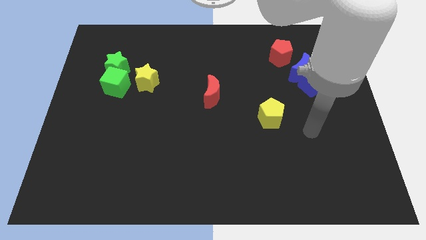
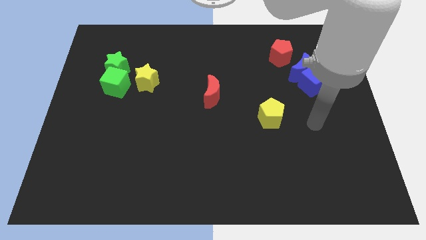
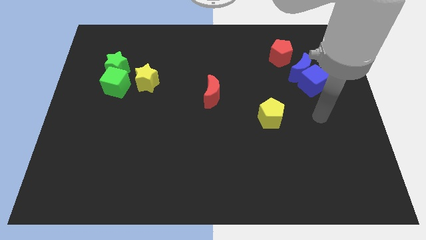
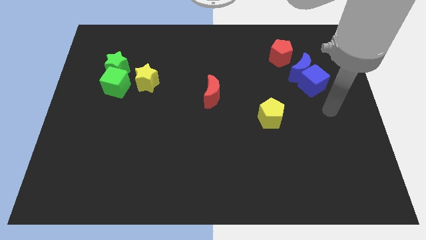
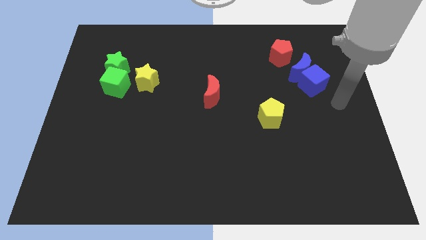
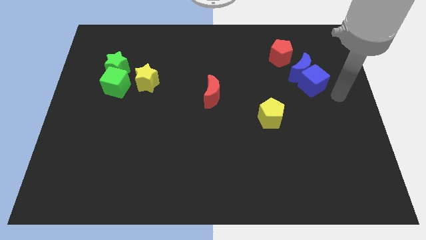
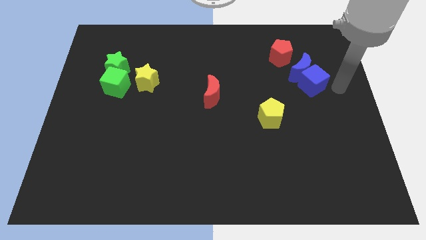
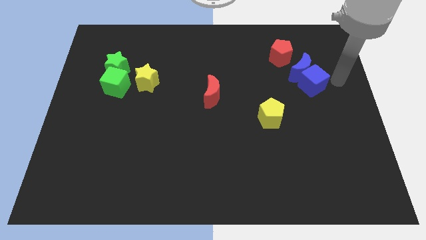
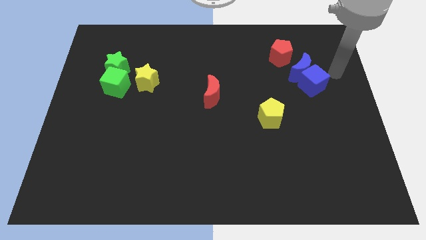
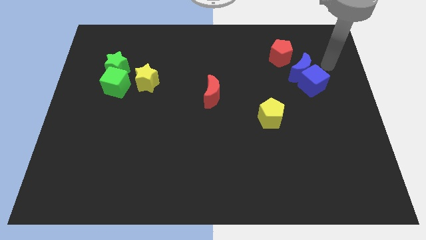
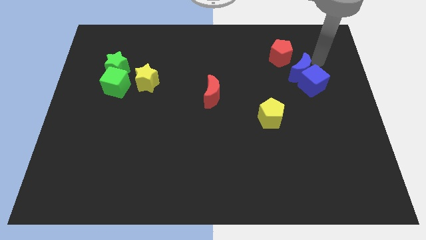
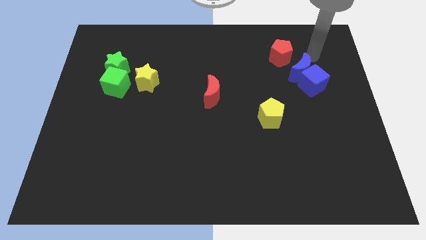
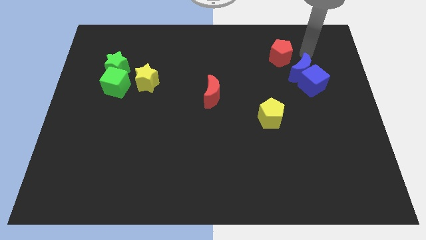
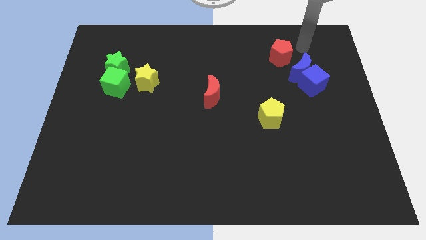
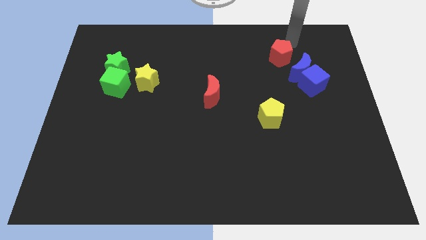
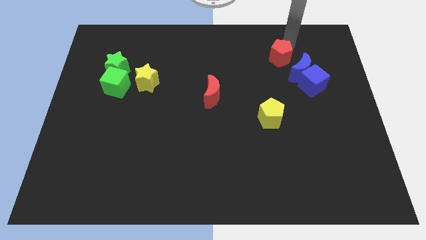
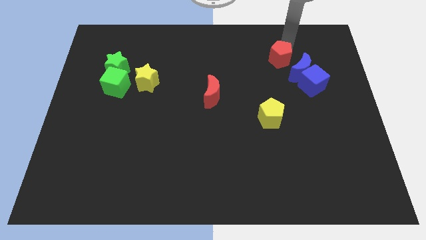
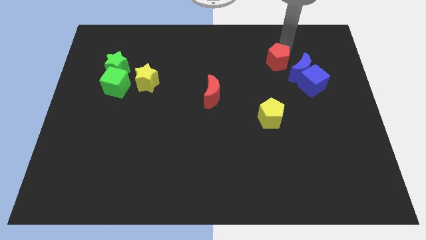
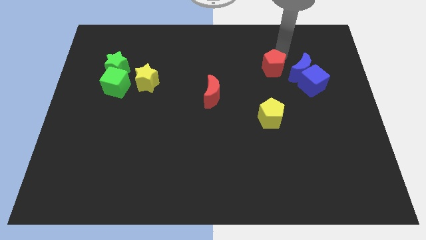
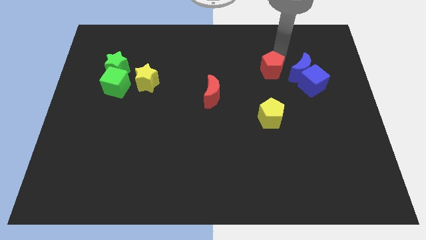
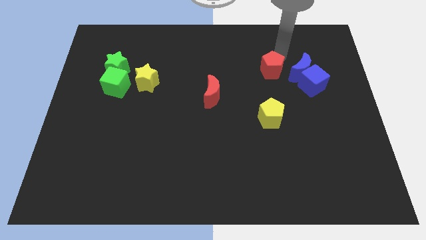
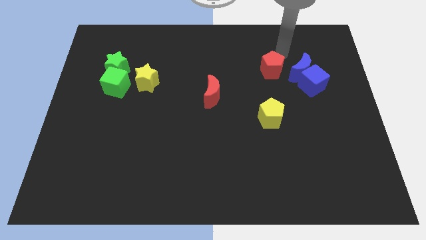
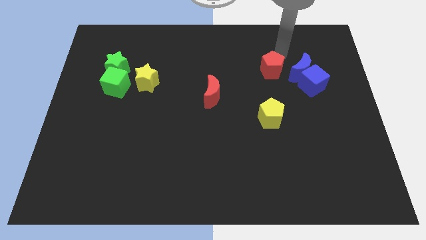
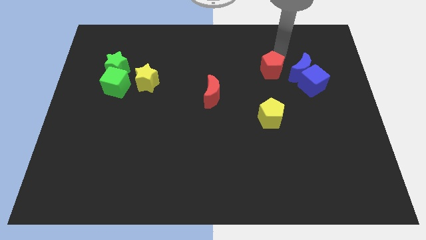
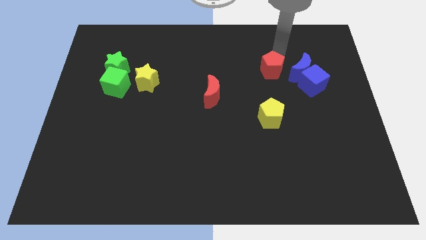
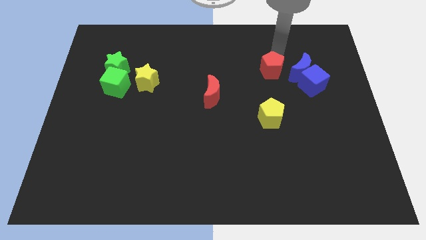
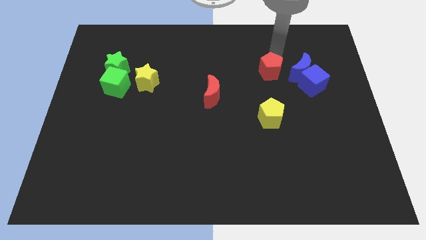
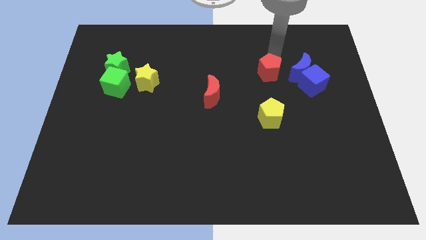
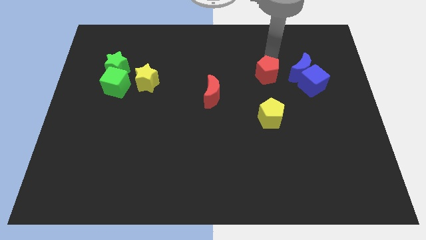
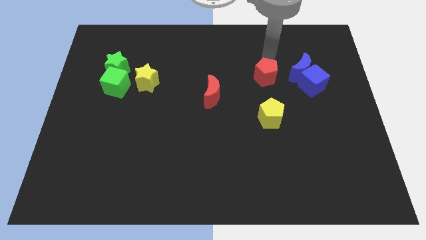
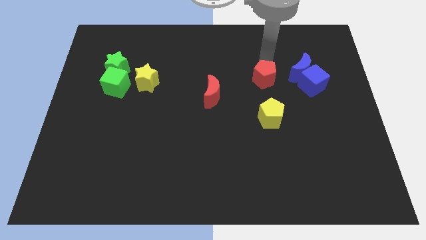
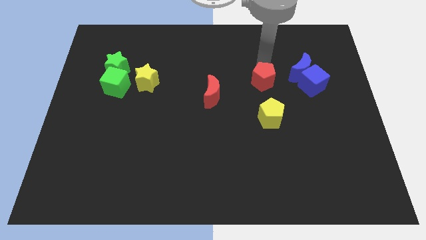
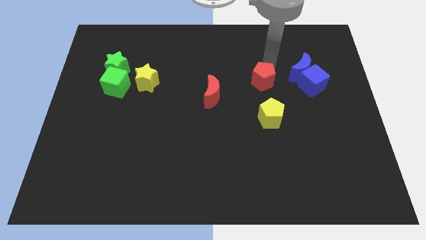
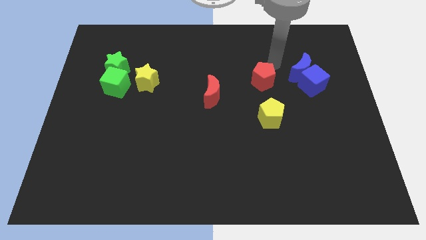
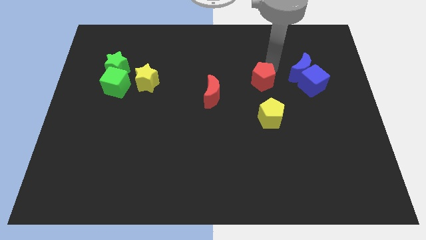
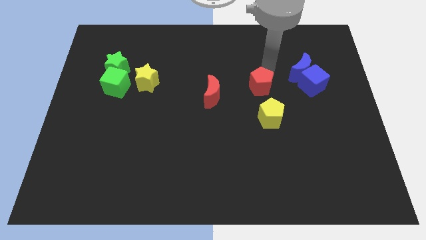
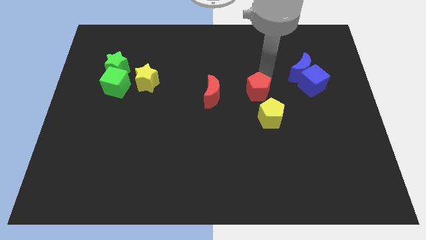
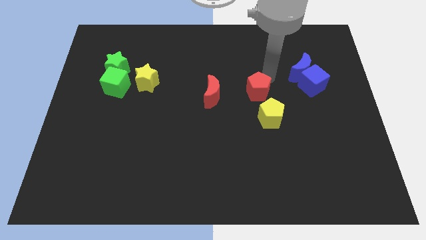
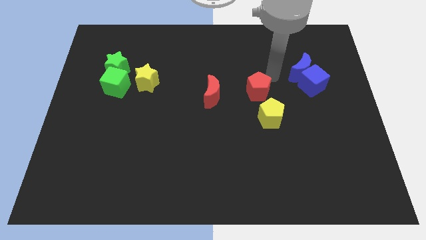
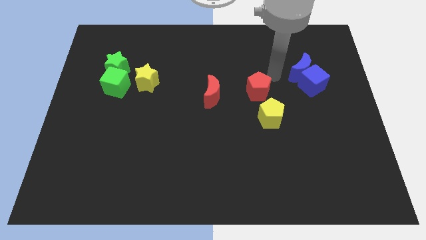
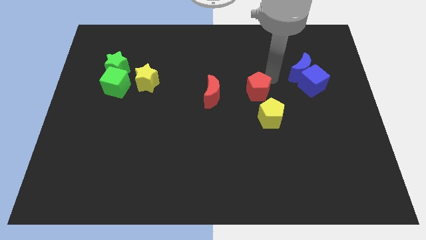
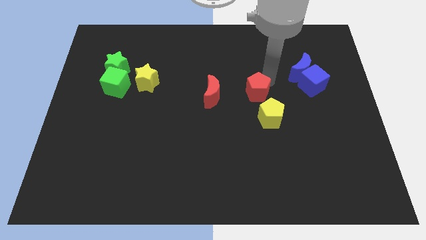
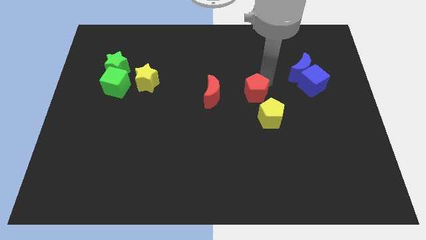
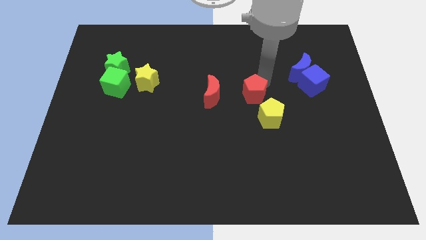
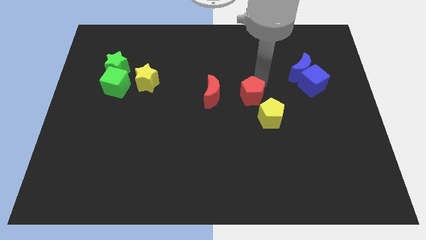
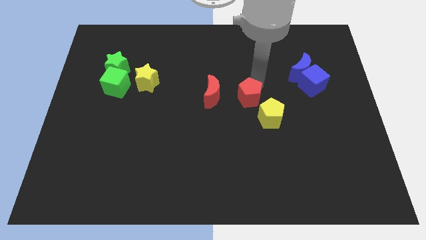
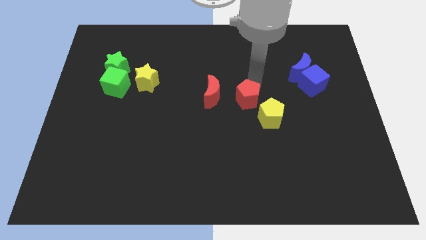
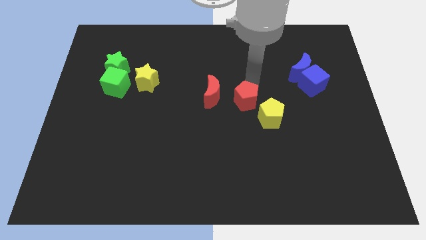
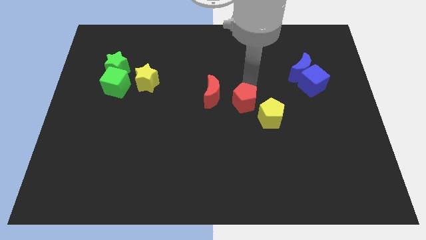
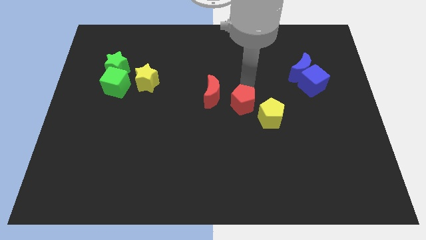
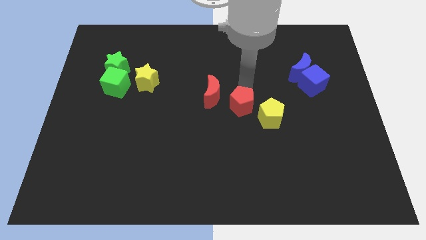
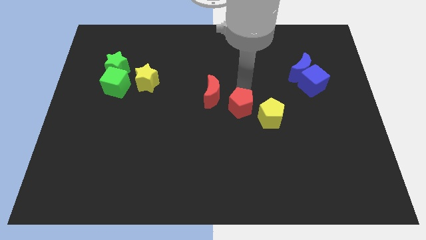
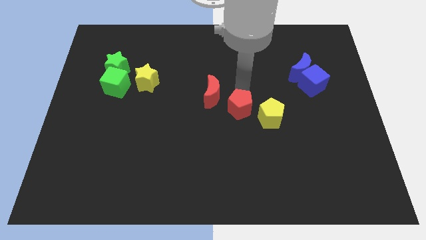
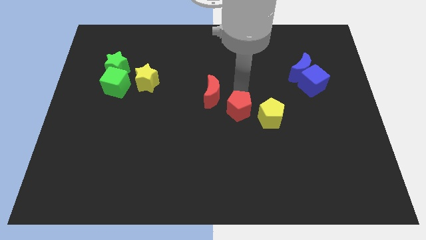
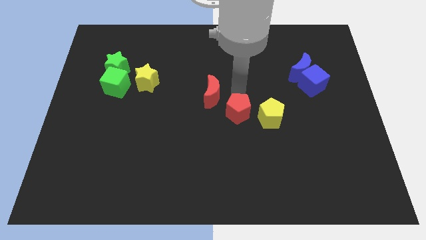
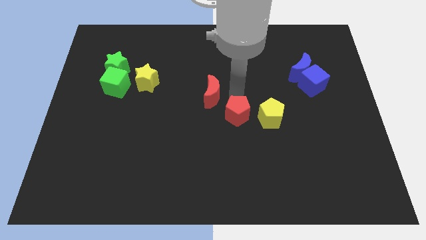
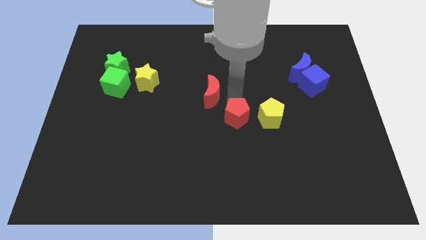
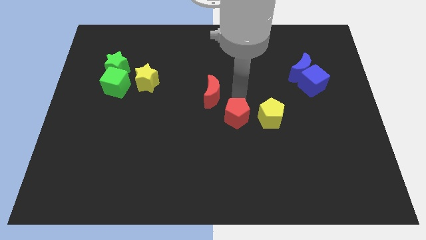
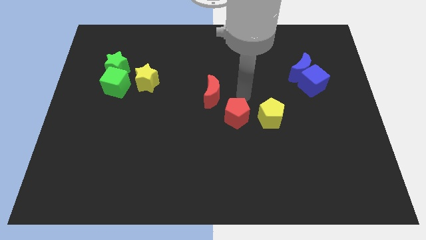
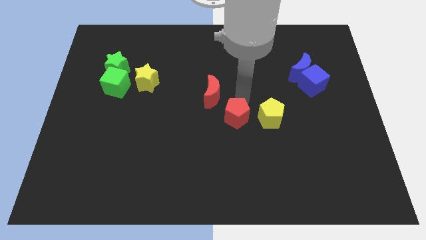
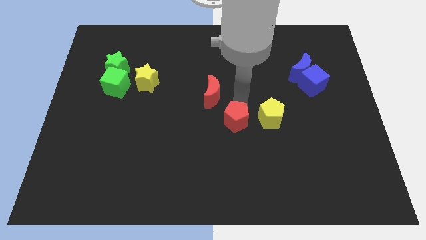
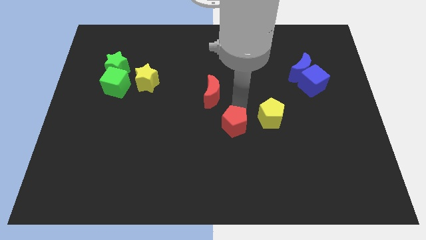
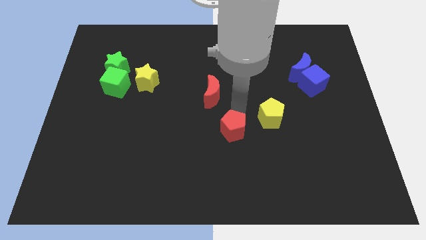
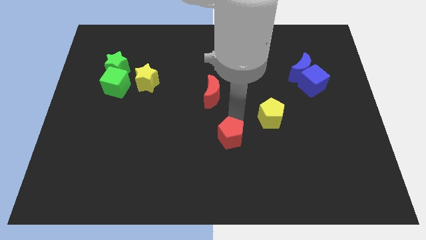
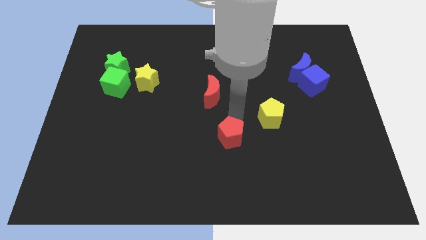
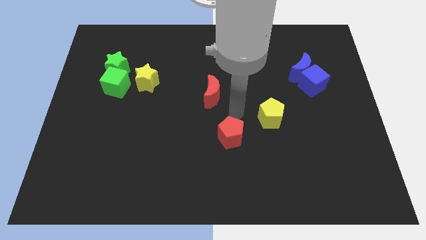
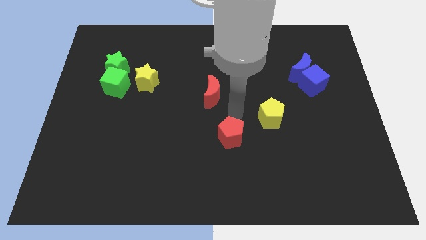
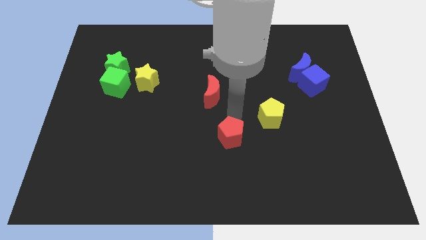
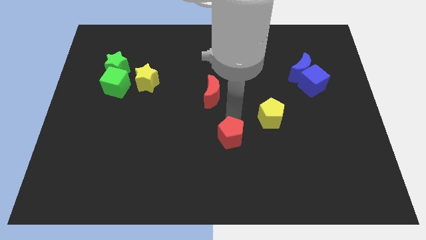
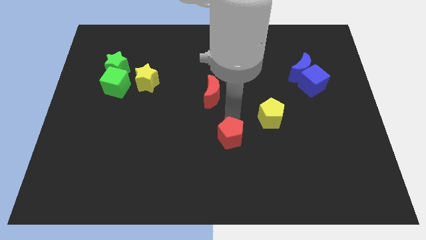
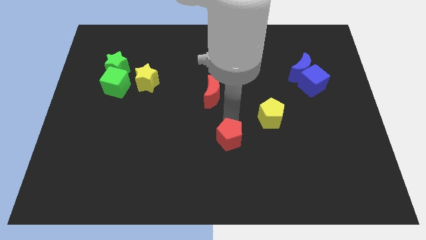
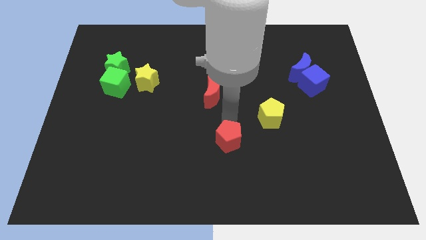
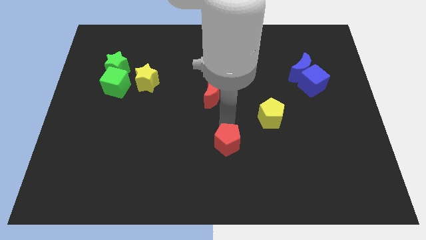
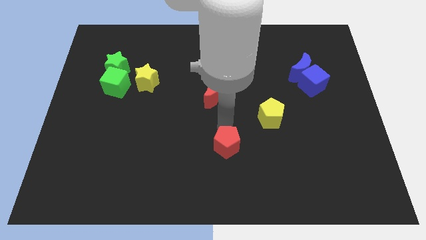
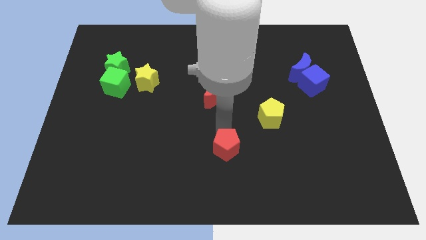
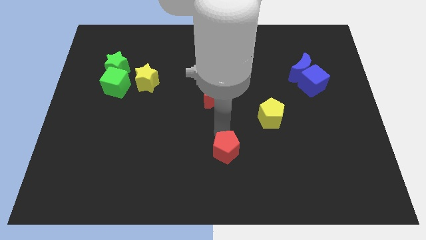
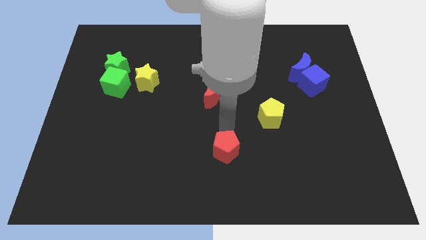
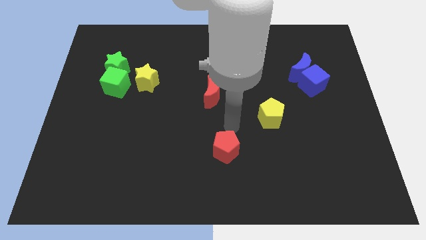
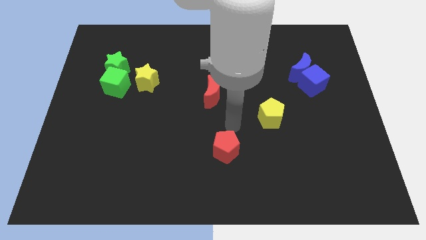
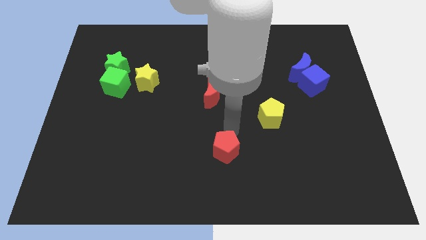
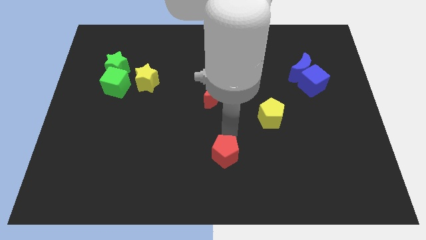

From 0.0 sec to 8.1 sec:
put the red pentagon to the bottom
